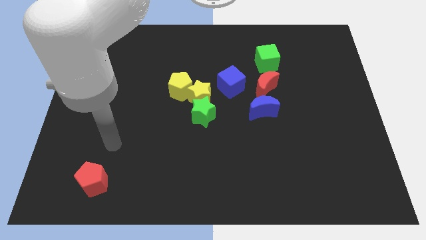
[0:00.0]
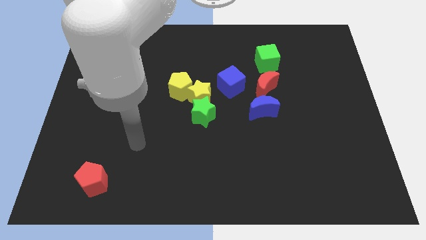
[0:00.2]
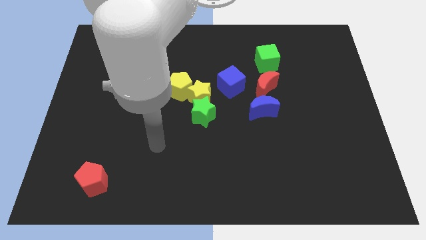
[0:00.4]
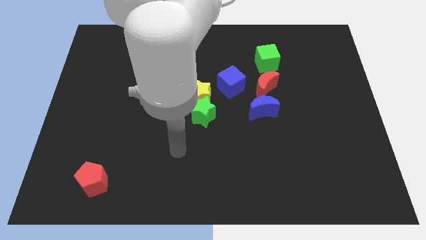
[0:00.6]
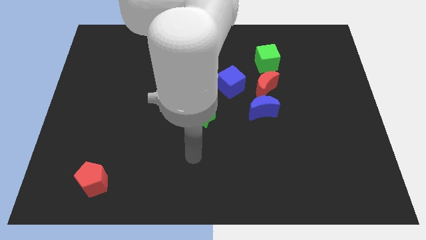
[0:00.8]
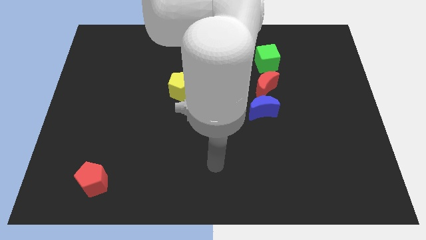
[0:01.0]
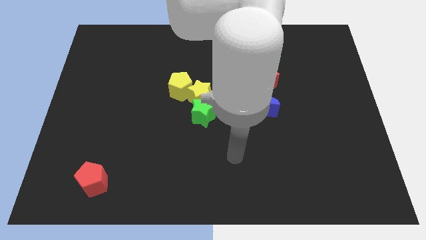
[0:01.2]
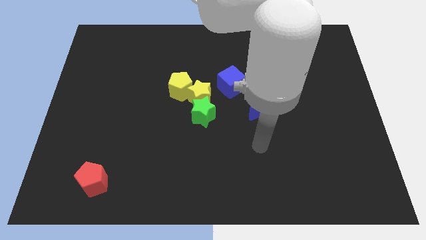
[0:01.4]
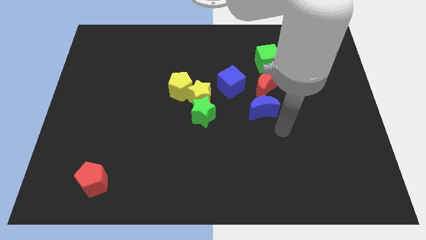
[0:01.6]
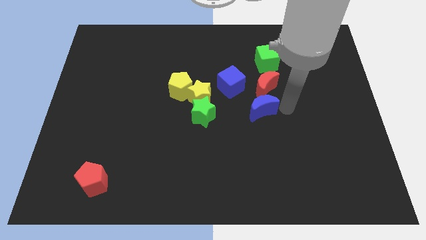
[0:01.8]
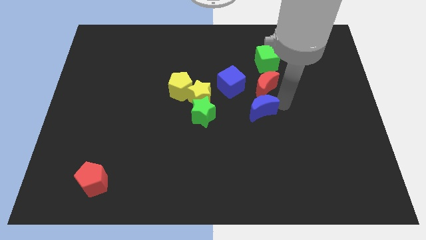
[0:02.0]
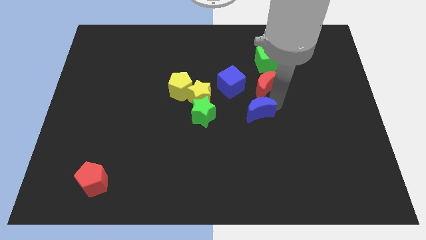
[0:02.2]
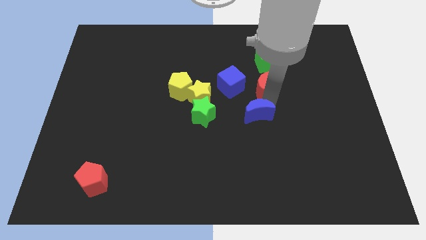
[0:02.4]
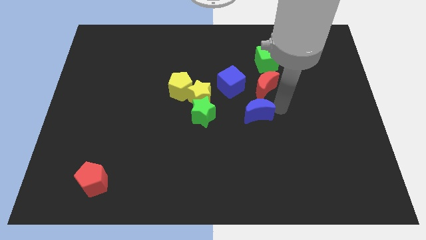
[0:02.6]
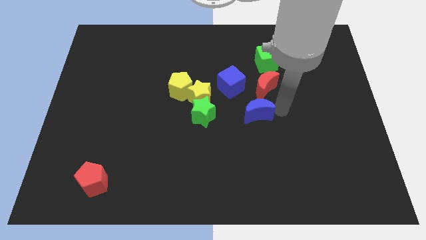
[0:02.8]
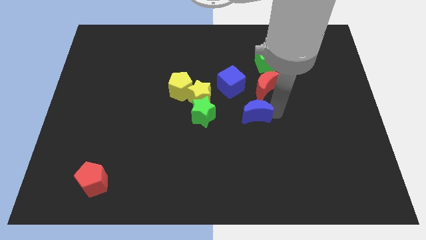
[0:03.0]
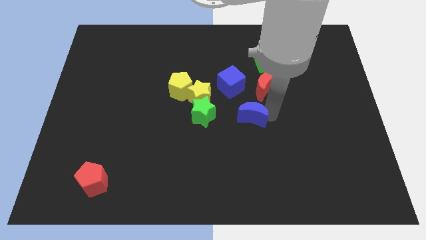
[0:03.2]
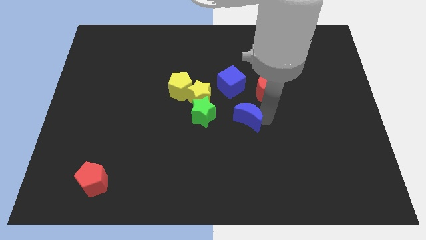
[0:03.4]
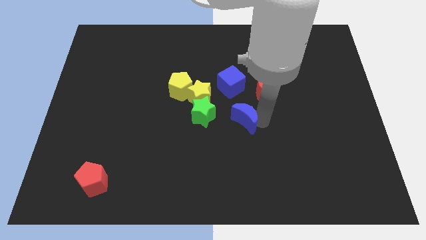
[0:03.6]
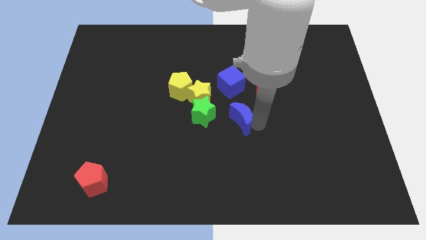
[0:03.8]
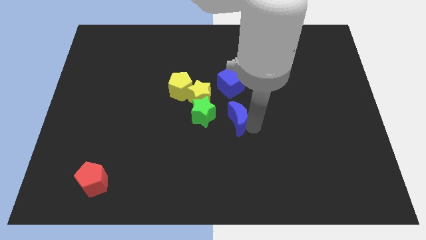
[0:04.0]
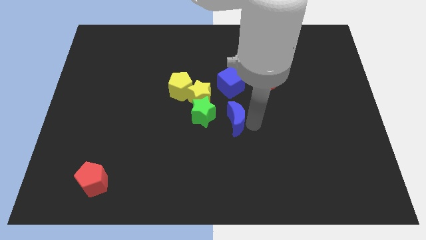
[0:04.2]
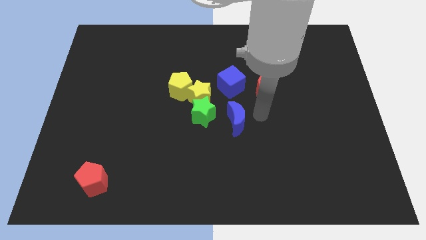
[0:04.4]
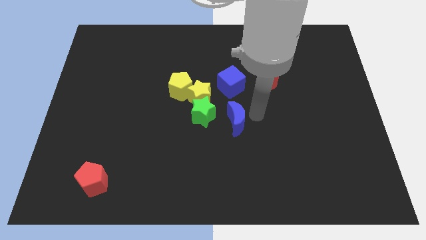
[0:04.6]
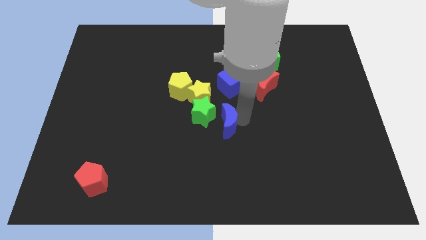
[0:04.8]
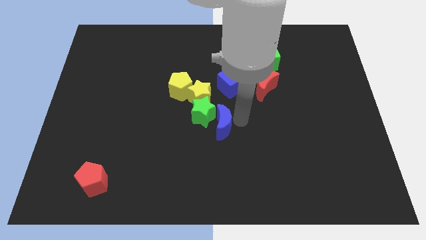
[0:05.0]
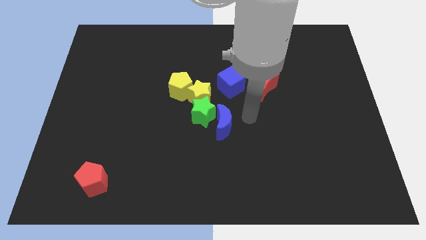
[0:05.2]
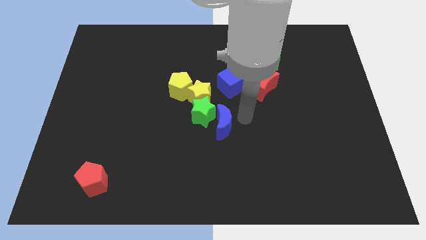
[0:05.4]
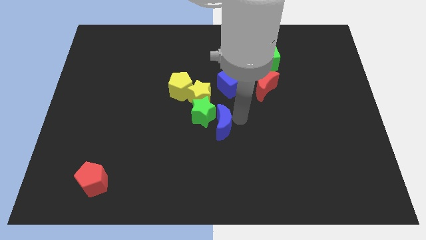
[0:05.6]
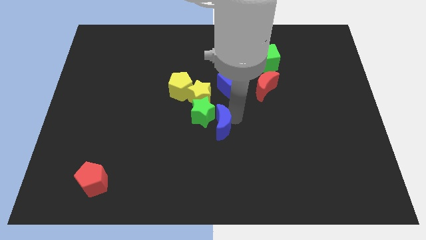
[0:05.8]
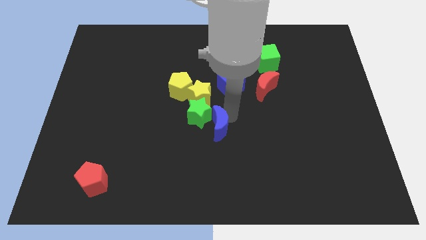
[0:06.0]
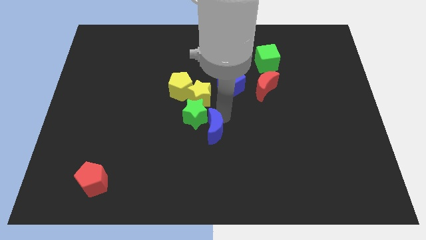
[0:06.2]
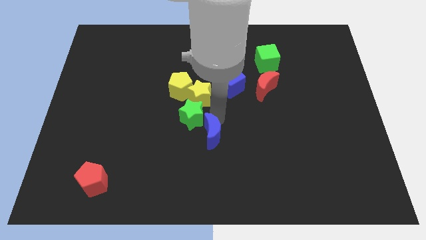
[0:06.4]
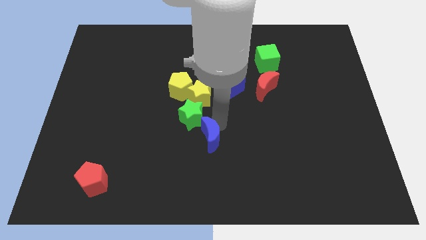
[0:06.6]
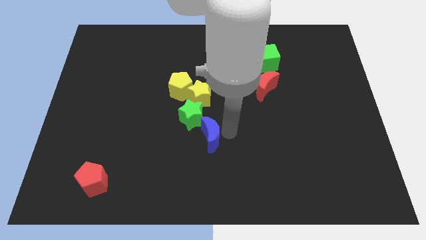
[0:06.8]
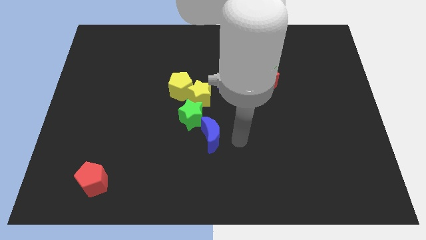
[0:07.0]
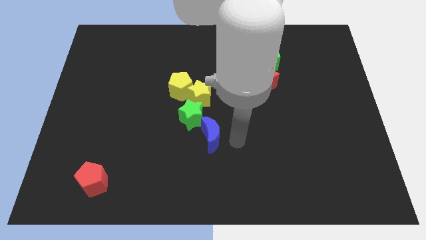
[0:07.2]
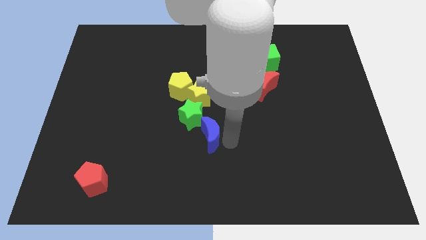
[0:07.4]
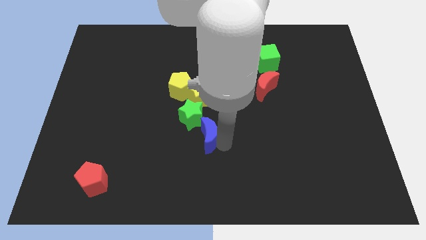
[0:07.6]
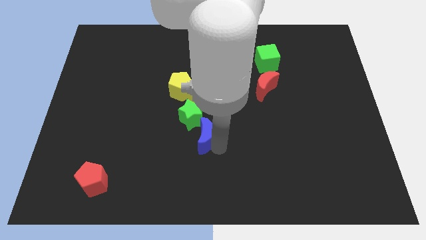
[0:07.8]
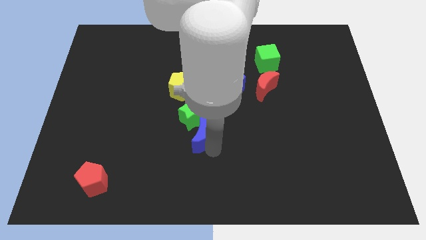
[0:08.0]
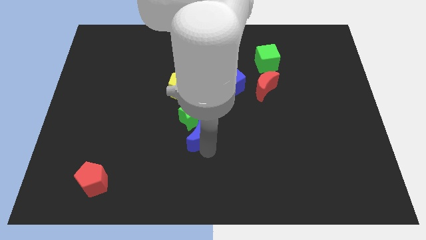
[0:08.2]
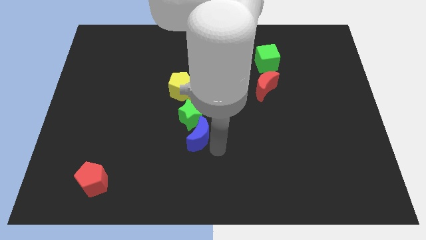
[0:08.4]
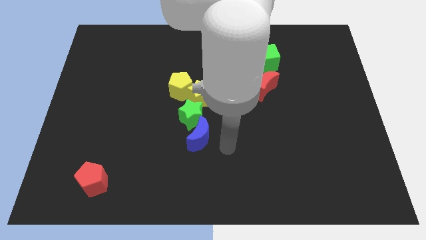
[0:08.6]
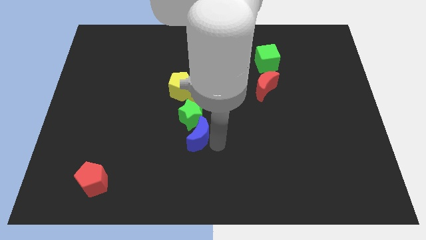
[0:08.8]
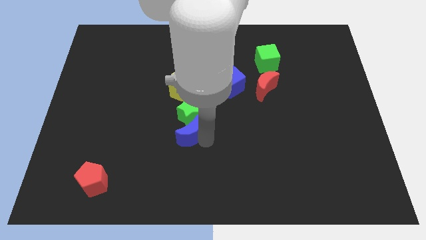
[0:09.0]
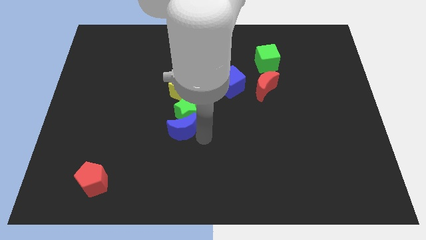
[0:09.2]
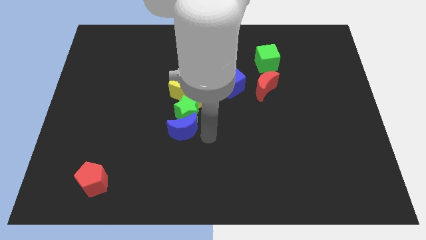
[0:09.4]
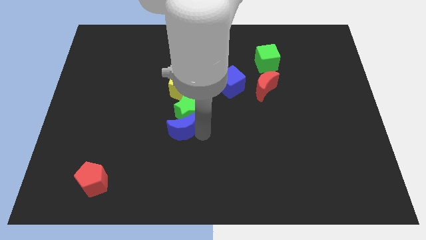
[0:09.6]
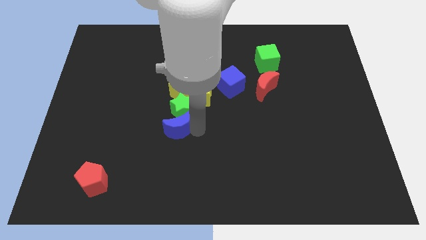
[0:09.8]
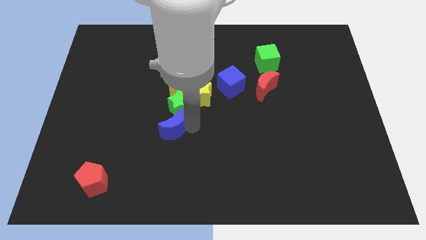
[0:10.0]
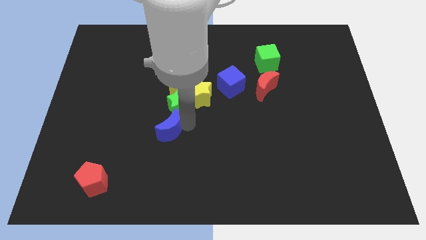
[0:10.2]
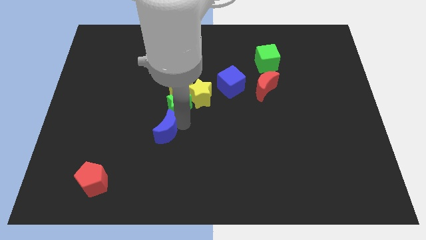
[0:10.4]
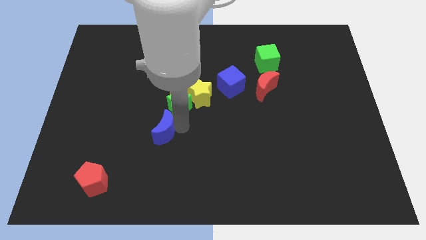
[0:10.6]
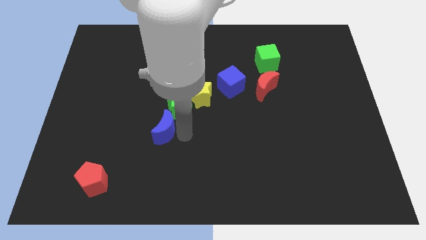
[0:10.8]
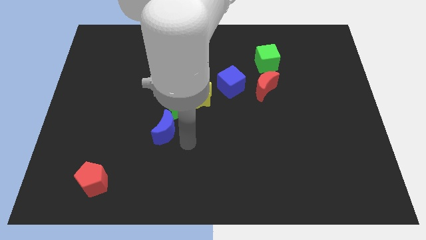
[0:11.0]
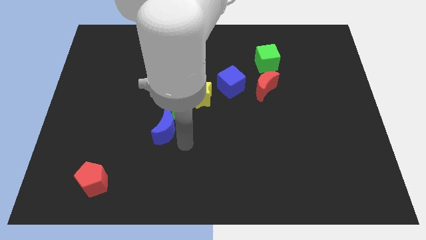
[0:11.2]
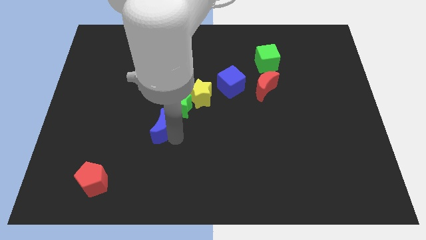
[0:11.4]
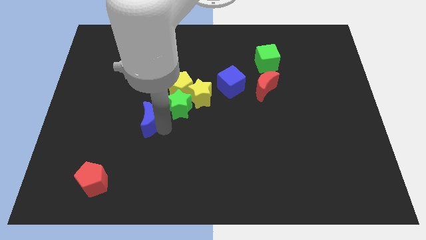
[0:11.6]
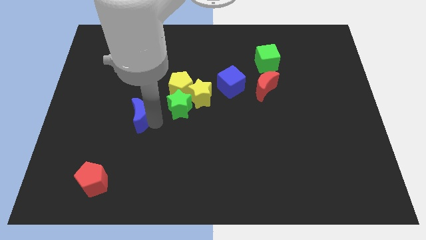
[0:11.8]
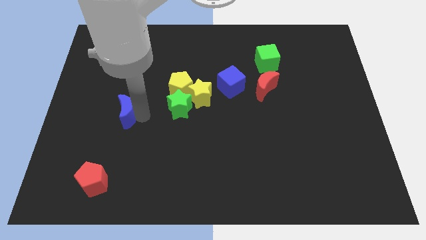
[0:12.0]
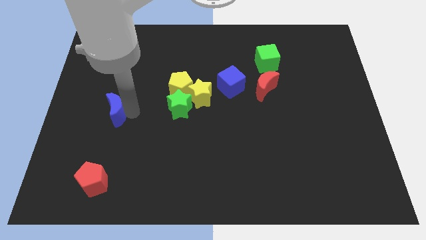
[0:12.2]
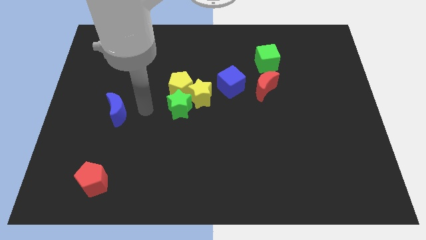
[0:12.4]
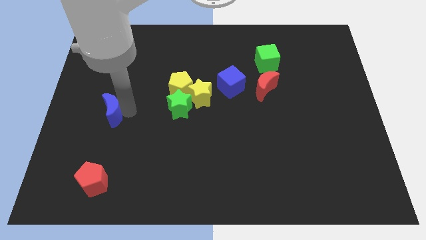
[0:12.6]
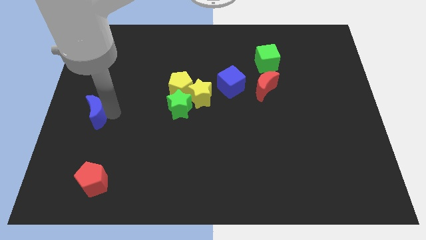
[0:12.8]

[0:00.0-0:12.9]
move the blue moon to the left side of the board
